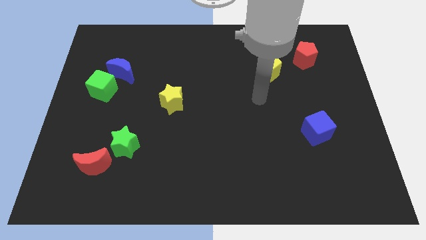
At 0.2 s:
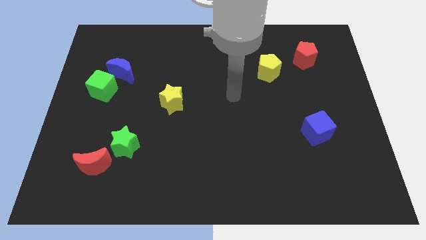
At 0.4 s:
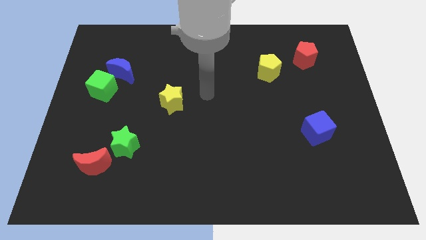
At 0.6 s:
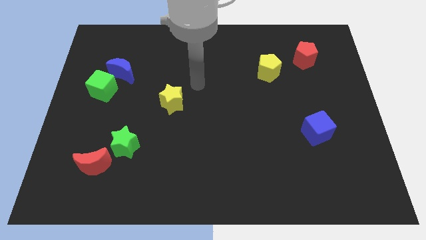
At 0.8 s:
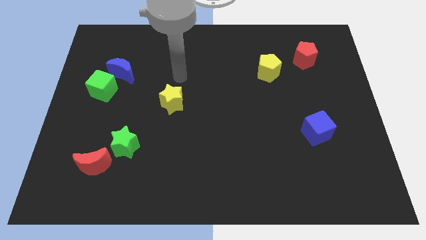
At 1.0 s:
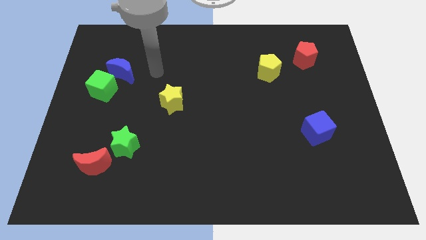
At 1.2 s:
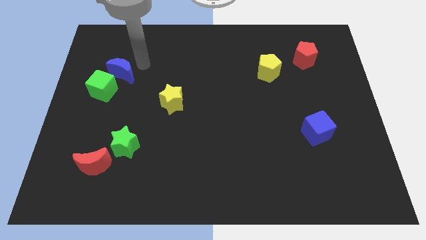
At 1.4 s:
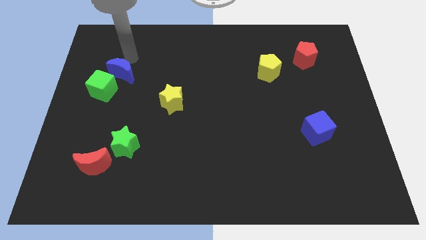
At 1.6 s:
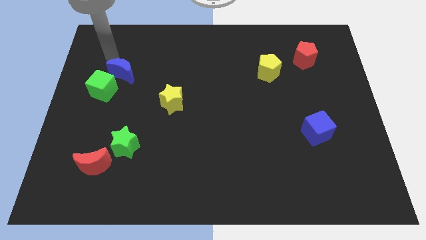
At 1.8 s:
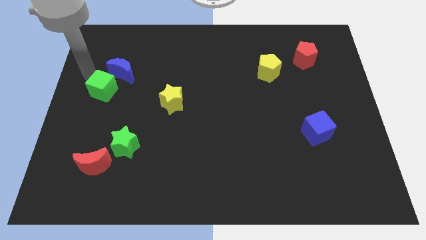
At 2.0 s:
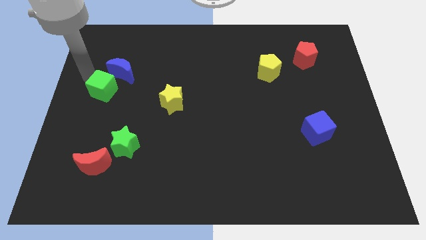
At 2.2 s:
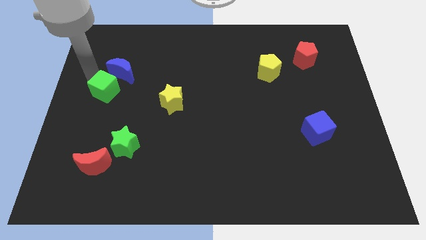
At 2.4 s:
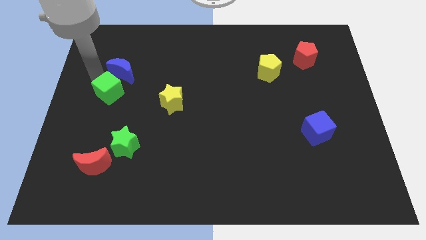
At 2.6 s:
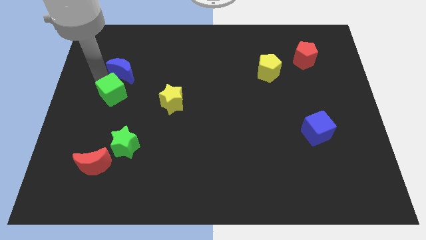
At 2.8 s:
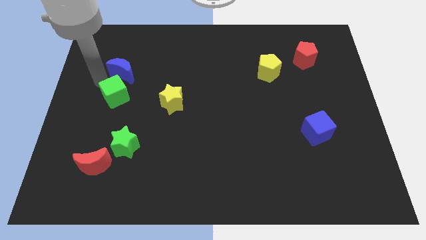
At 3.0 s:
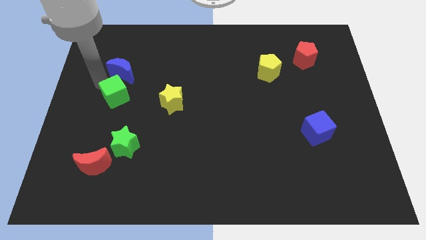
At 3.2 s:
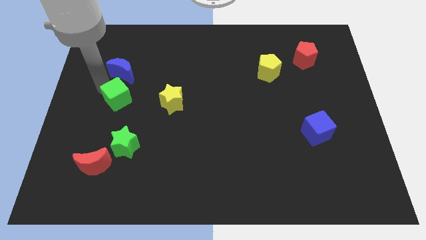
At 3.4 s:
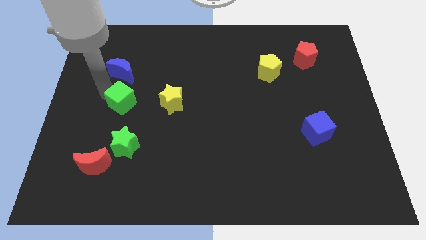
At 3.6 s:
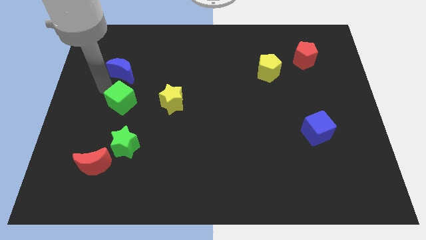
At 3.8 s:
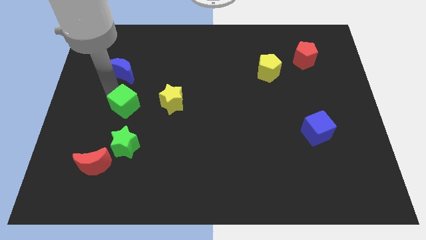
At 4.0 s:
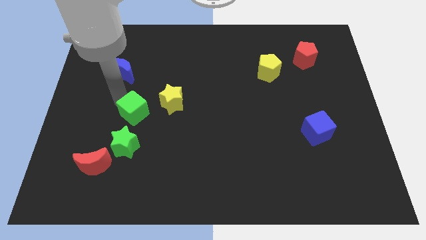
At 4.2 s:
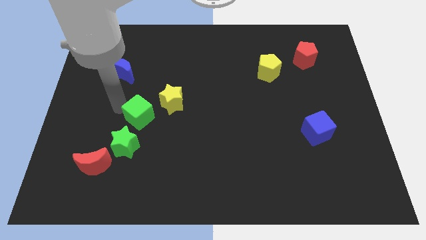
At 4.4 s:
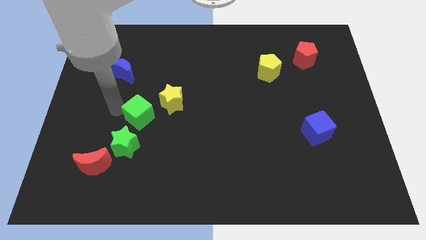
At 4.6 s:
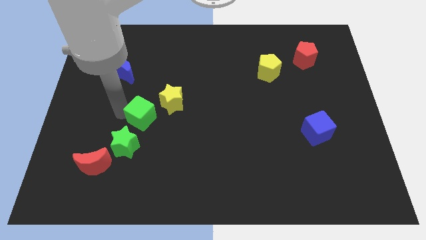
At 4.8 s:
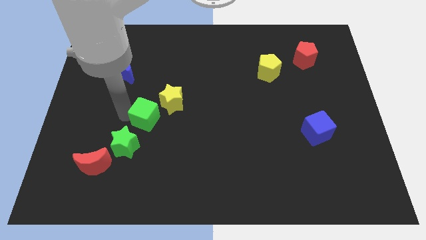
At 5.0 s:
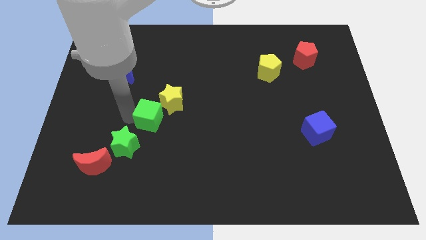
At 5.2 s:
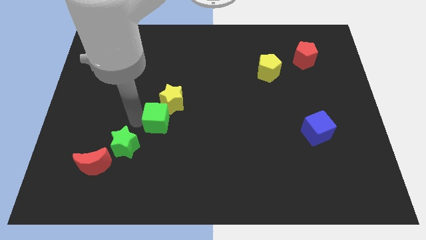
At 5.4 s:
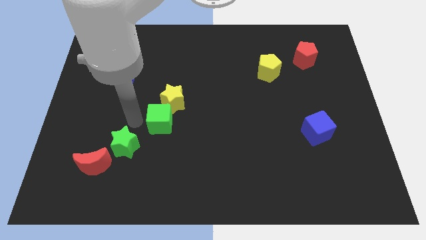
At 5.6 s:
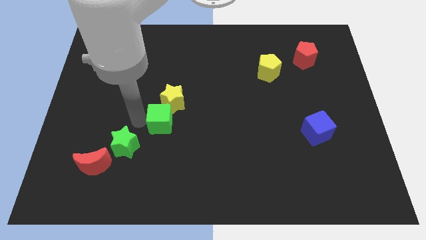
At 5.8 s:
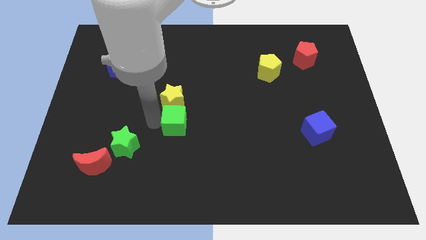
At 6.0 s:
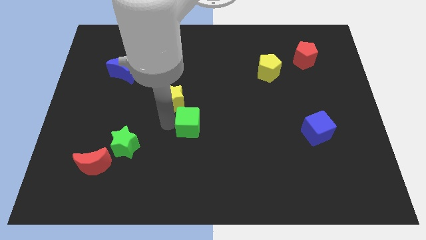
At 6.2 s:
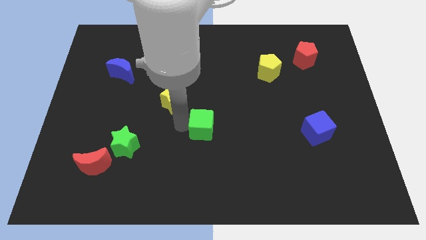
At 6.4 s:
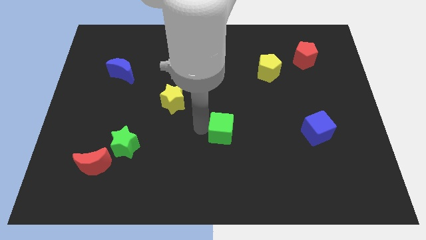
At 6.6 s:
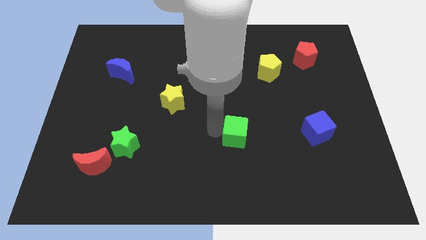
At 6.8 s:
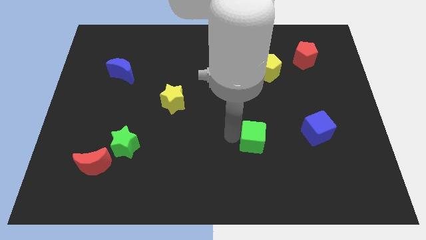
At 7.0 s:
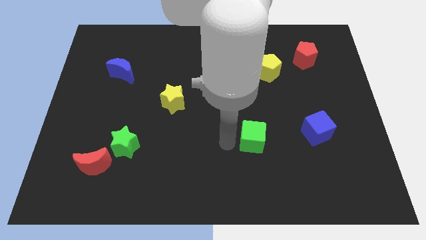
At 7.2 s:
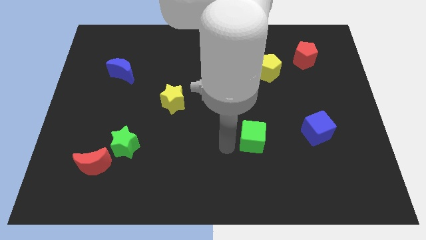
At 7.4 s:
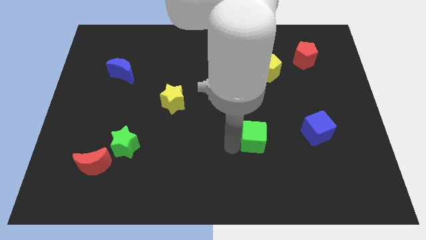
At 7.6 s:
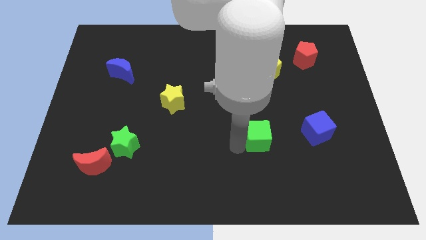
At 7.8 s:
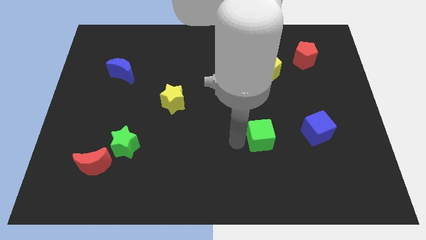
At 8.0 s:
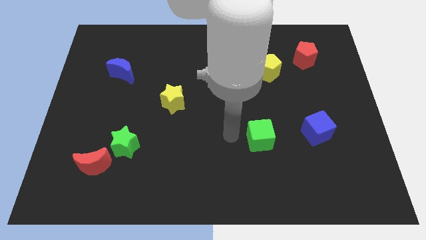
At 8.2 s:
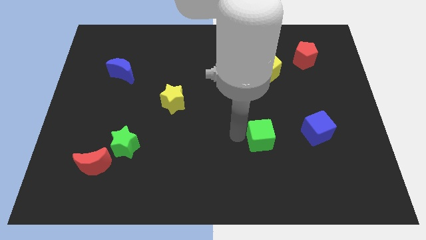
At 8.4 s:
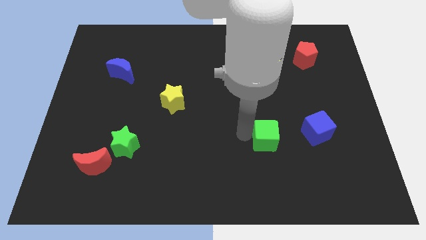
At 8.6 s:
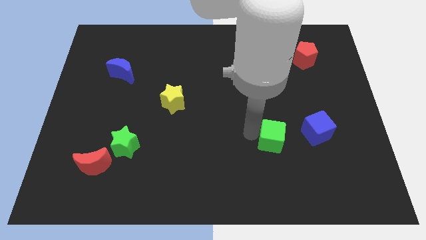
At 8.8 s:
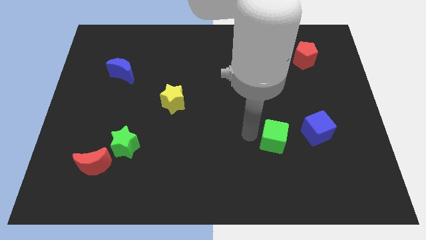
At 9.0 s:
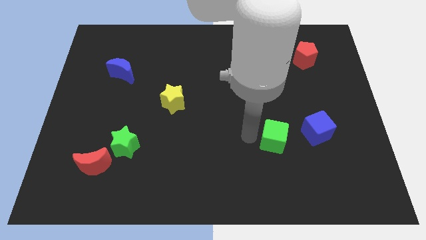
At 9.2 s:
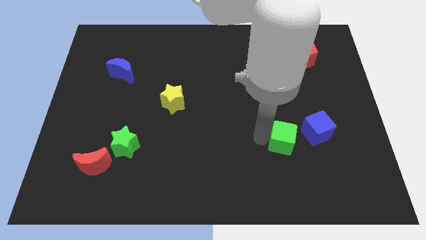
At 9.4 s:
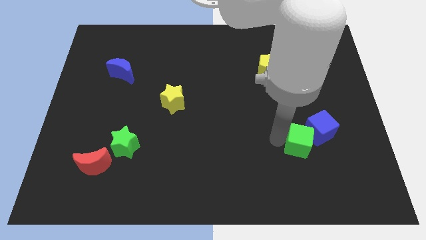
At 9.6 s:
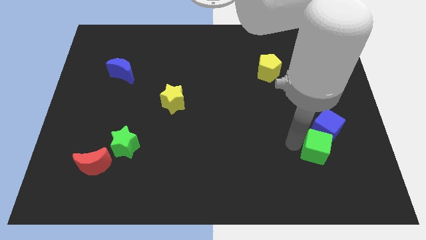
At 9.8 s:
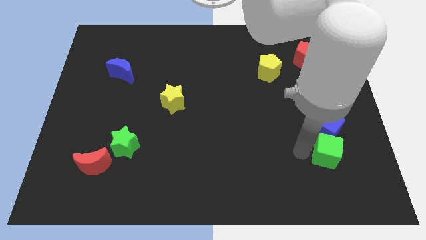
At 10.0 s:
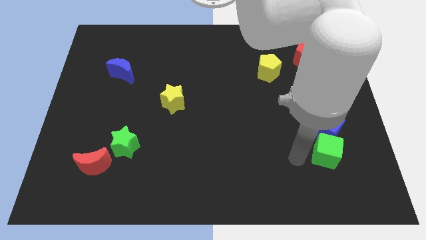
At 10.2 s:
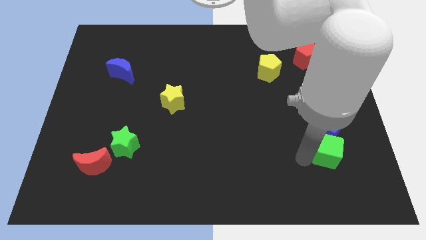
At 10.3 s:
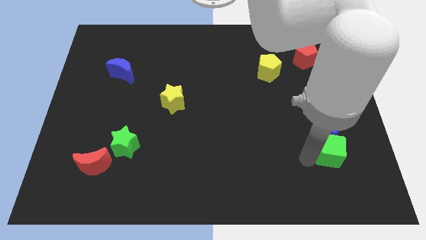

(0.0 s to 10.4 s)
put the green cube to the bottom right side of the blue cube

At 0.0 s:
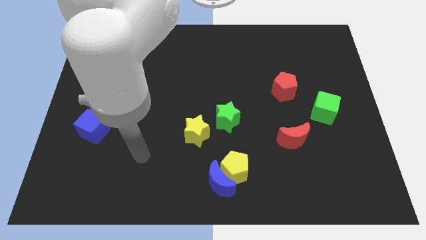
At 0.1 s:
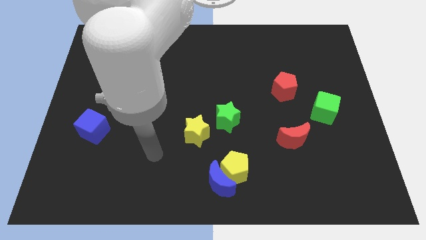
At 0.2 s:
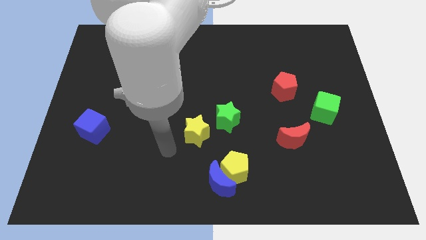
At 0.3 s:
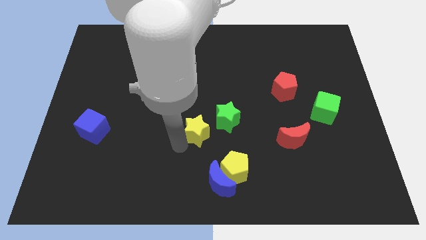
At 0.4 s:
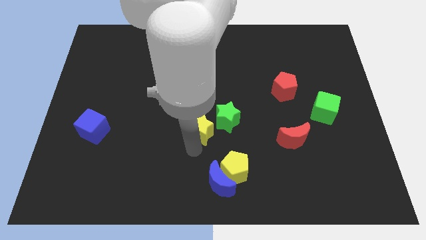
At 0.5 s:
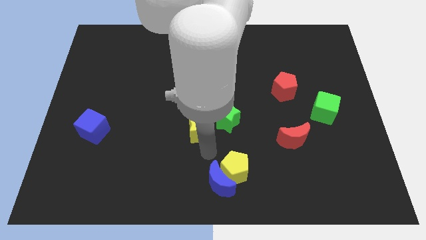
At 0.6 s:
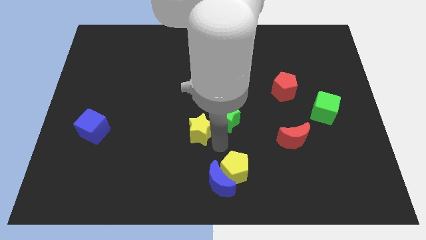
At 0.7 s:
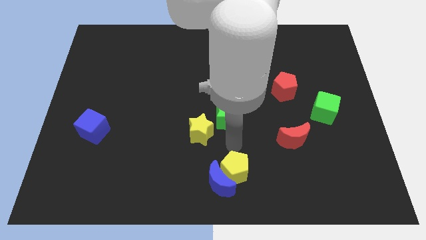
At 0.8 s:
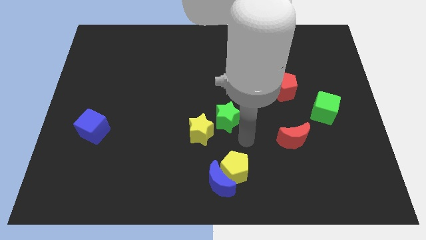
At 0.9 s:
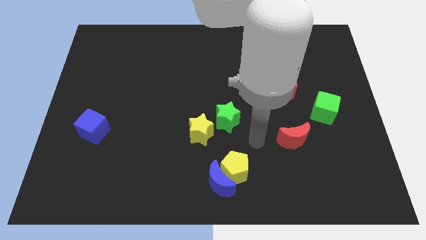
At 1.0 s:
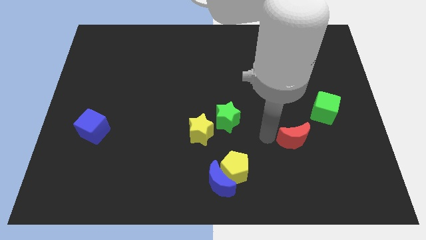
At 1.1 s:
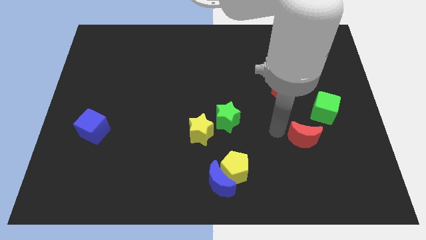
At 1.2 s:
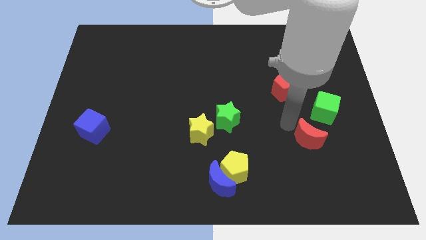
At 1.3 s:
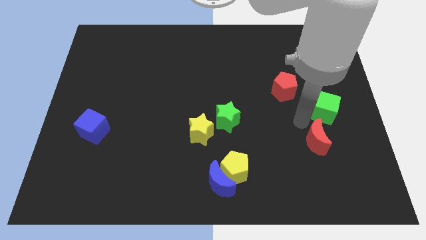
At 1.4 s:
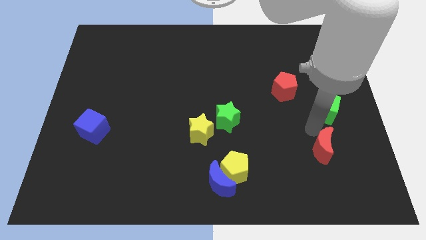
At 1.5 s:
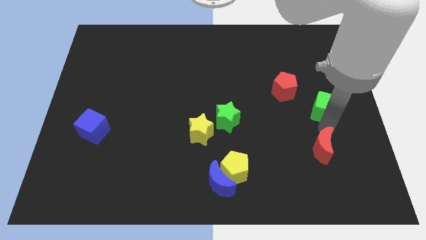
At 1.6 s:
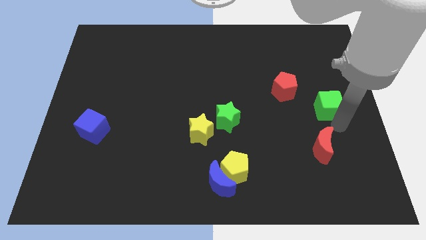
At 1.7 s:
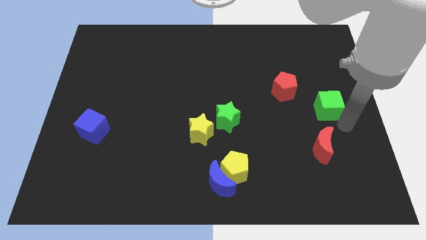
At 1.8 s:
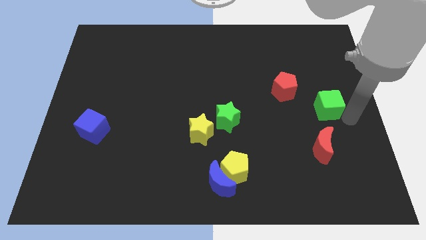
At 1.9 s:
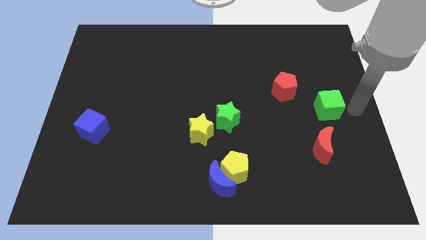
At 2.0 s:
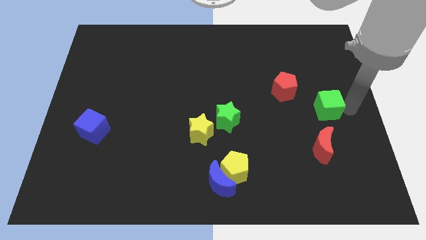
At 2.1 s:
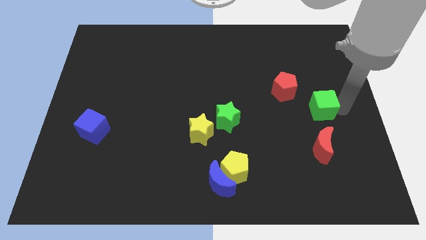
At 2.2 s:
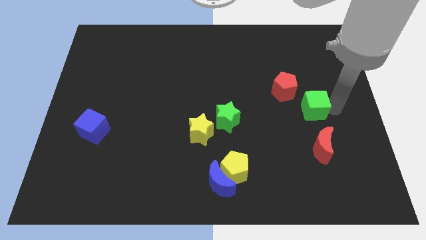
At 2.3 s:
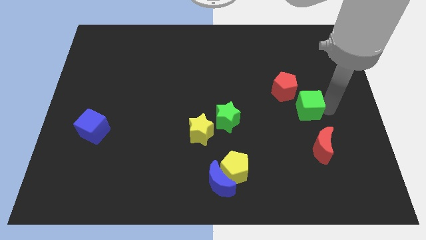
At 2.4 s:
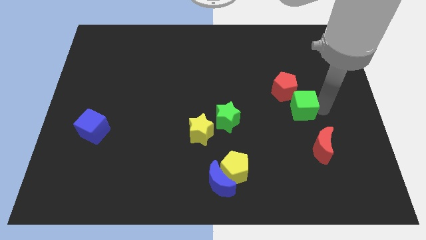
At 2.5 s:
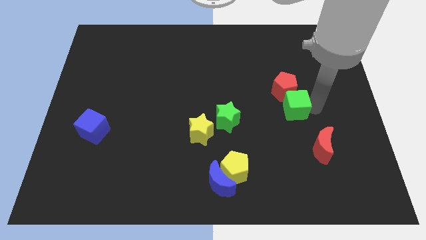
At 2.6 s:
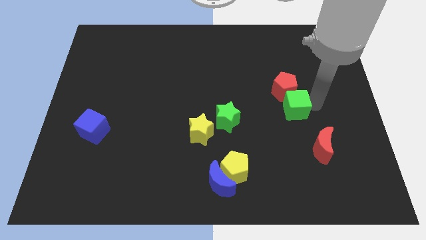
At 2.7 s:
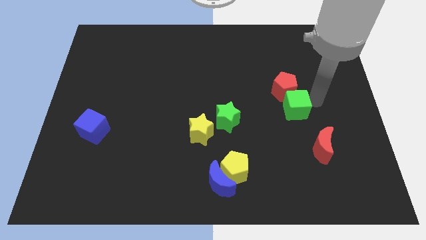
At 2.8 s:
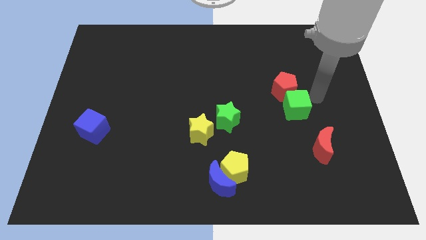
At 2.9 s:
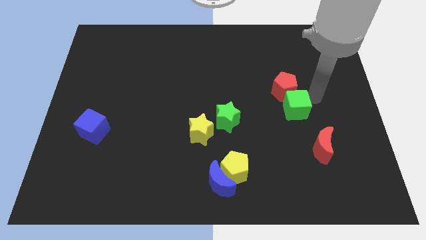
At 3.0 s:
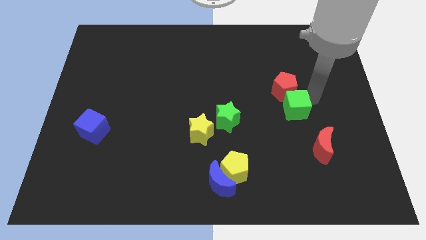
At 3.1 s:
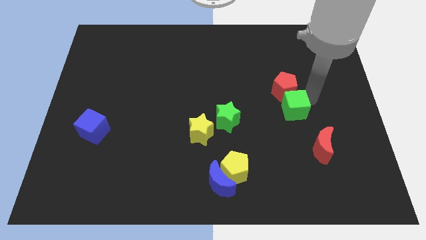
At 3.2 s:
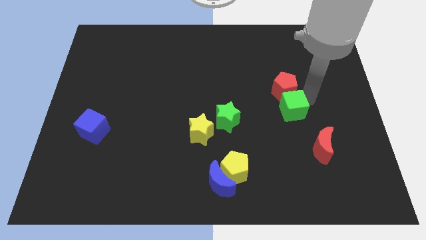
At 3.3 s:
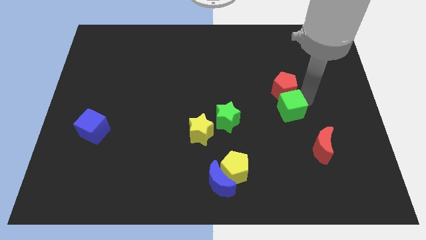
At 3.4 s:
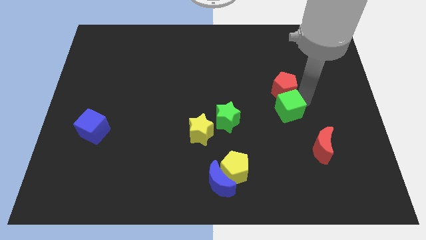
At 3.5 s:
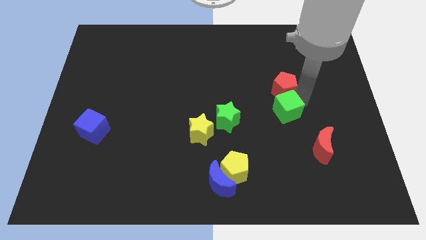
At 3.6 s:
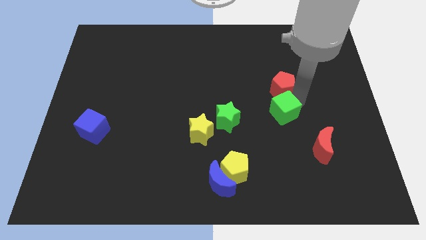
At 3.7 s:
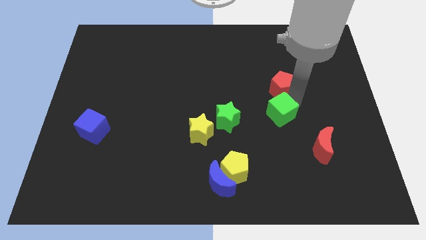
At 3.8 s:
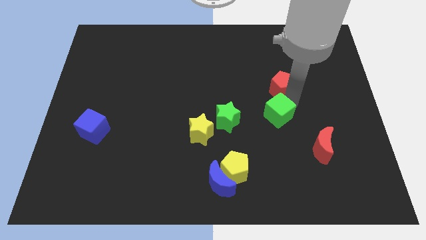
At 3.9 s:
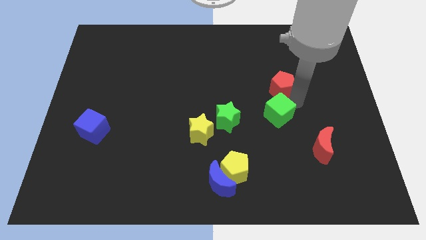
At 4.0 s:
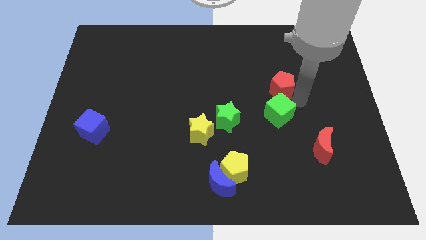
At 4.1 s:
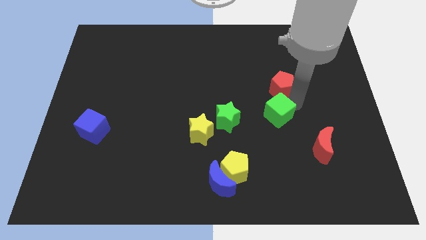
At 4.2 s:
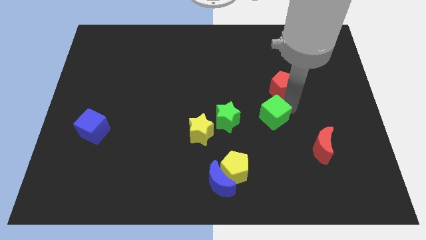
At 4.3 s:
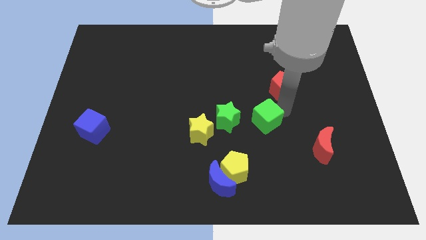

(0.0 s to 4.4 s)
push the green cube to the right of the yellow star
